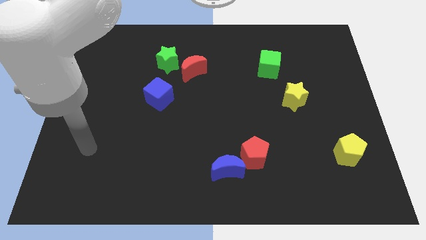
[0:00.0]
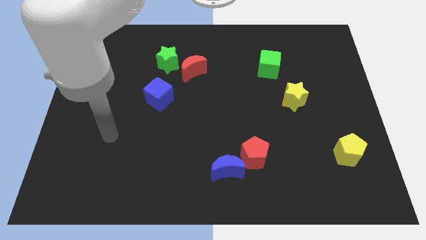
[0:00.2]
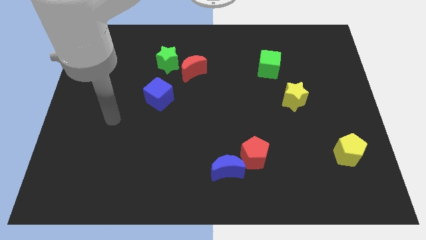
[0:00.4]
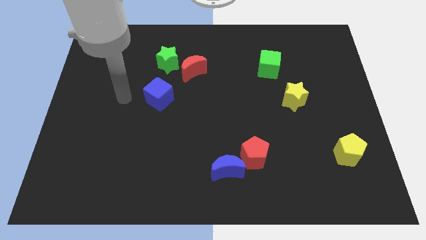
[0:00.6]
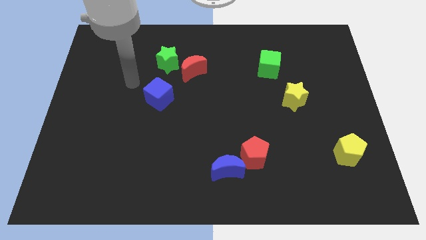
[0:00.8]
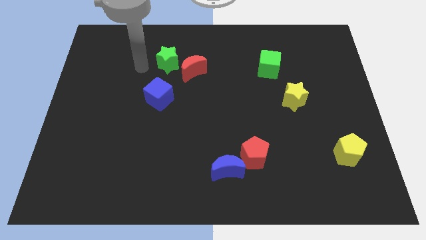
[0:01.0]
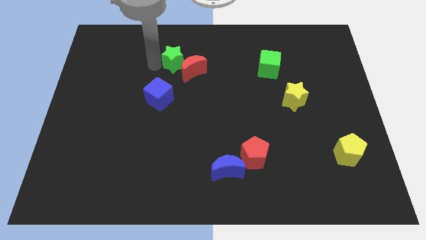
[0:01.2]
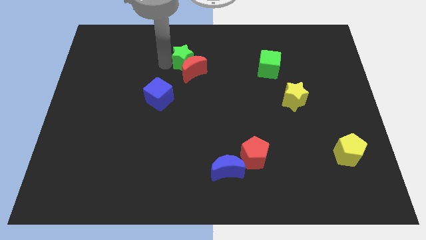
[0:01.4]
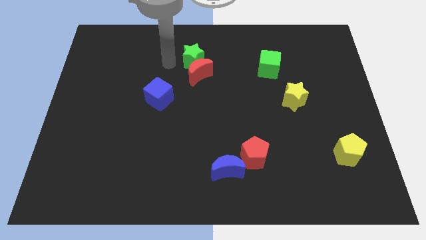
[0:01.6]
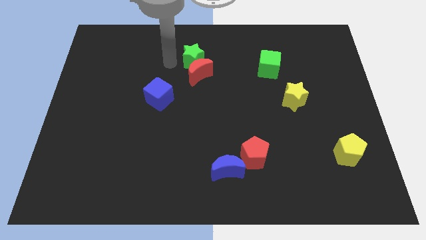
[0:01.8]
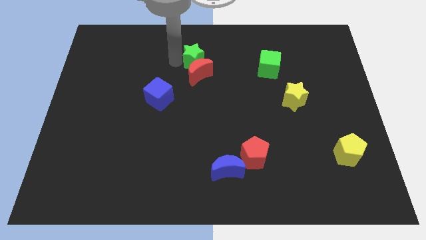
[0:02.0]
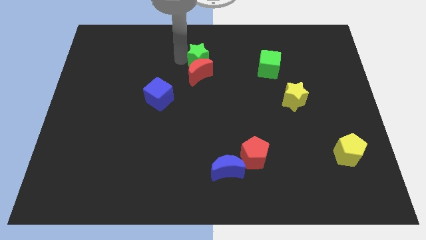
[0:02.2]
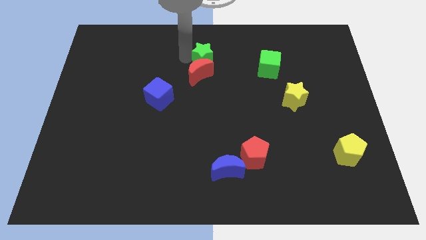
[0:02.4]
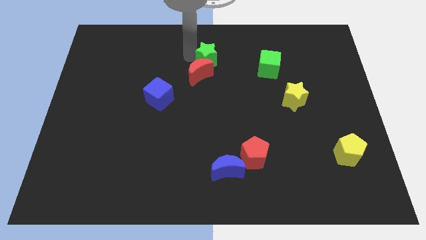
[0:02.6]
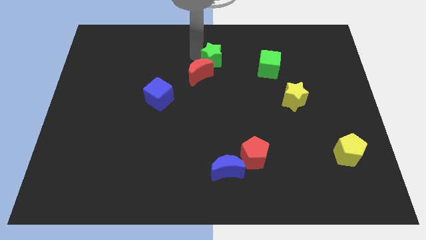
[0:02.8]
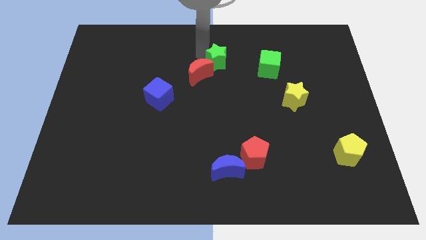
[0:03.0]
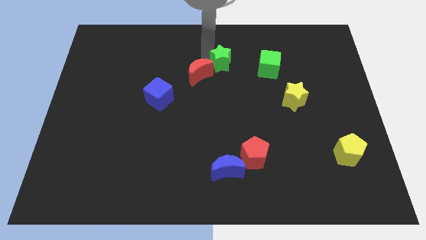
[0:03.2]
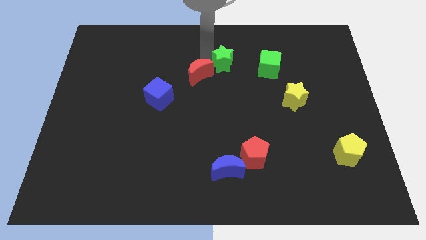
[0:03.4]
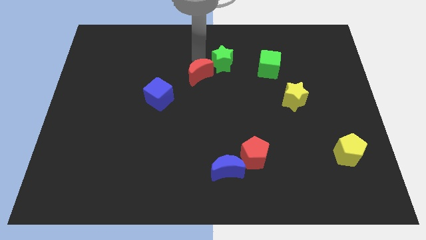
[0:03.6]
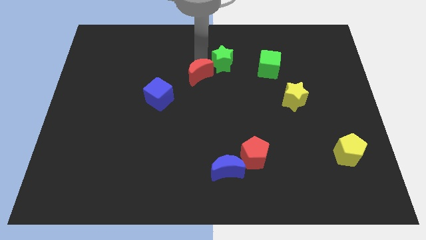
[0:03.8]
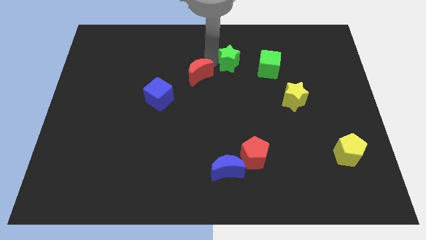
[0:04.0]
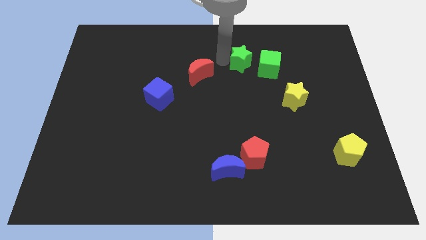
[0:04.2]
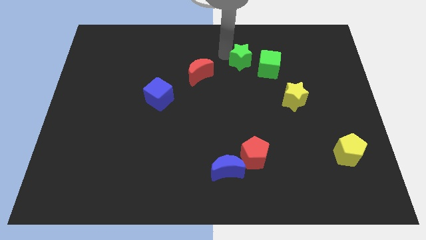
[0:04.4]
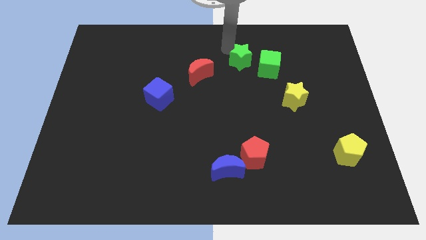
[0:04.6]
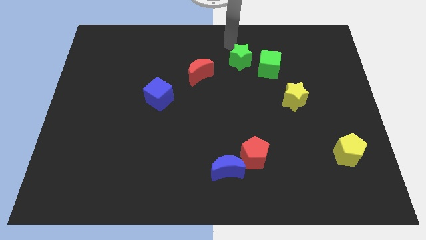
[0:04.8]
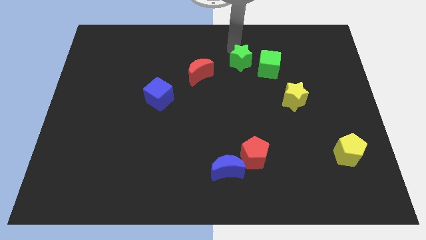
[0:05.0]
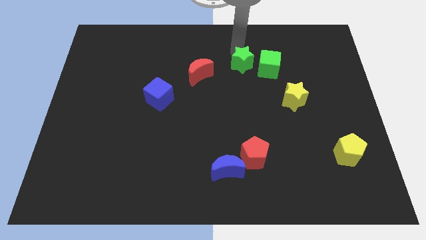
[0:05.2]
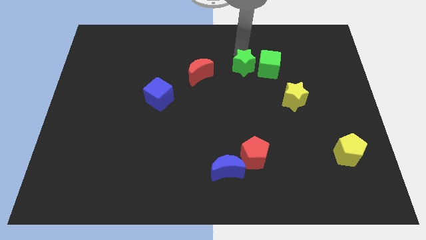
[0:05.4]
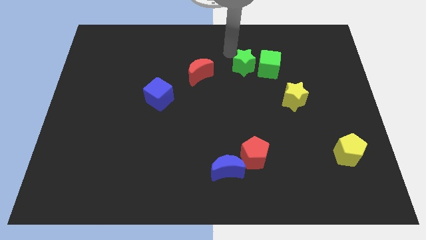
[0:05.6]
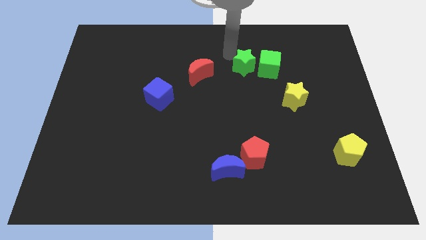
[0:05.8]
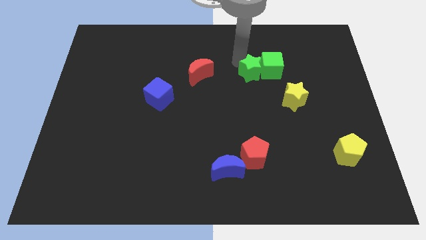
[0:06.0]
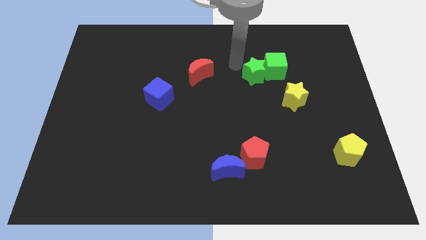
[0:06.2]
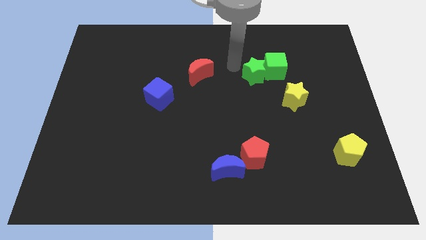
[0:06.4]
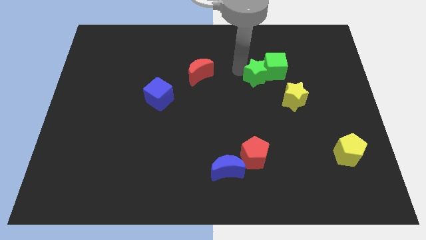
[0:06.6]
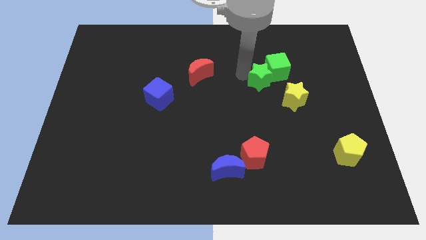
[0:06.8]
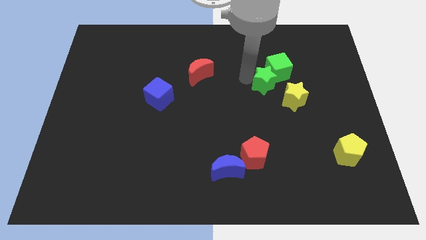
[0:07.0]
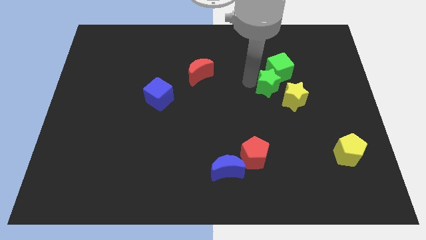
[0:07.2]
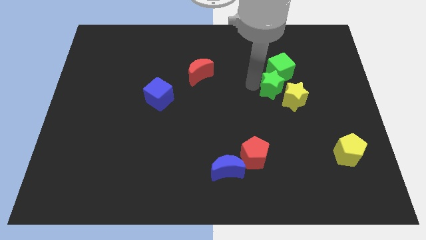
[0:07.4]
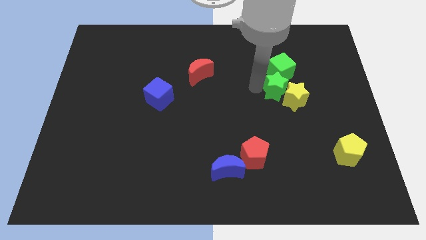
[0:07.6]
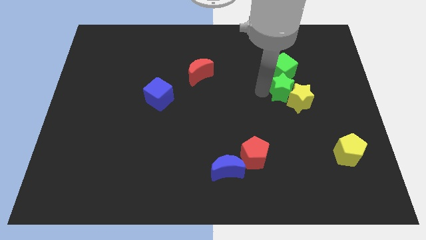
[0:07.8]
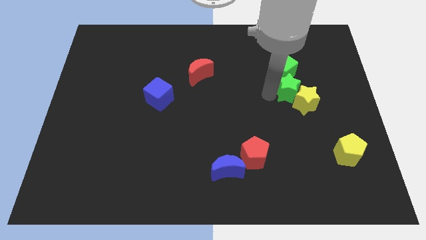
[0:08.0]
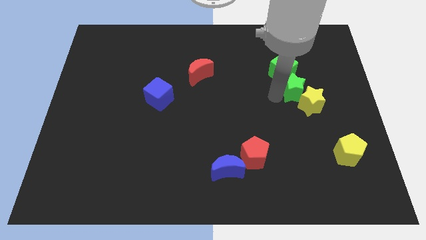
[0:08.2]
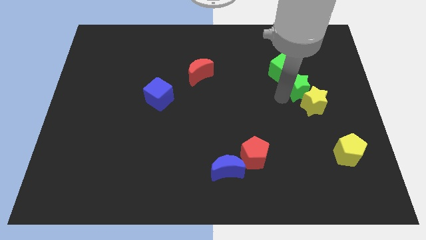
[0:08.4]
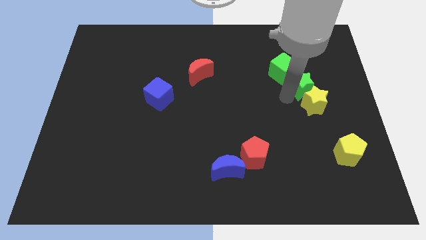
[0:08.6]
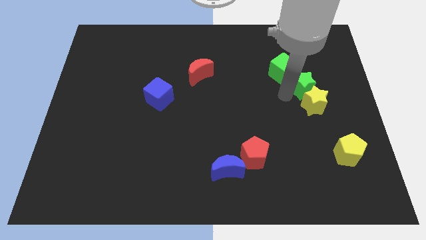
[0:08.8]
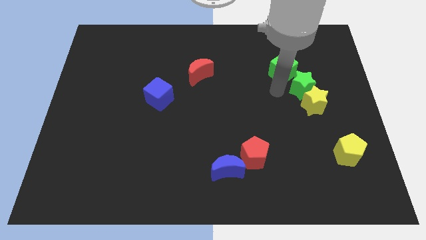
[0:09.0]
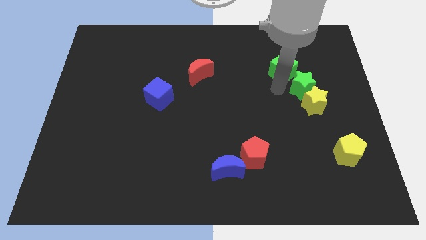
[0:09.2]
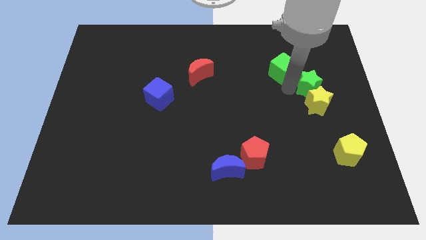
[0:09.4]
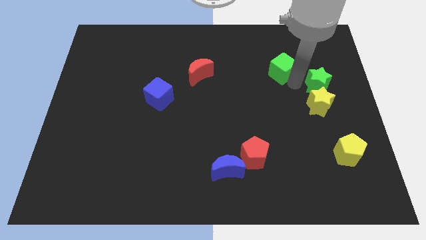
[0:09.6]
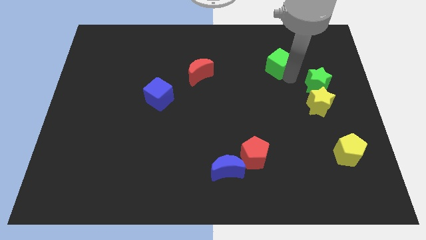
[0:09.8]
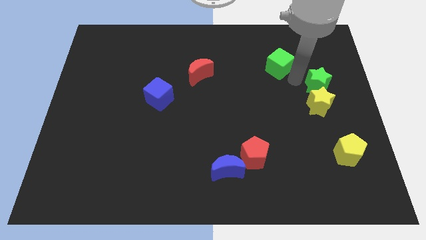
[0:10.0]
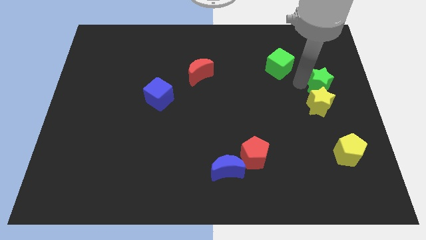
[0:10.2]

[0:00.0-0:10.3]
push the green star to the right side

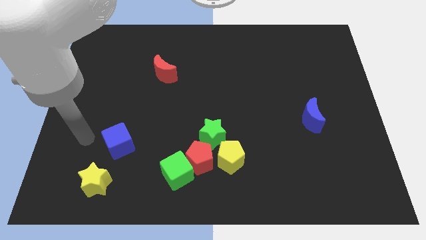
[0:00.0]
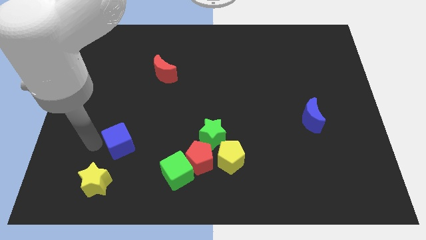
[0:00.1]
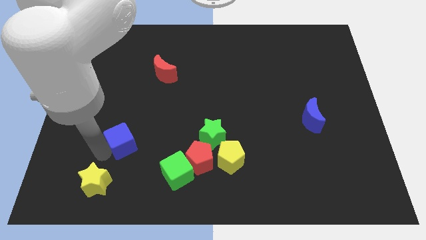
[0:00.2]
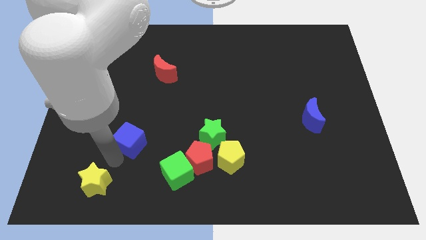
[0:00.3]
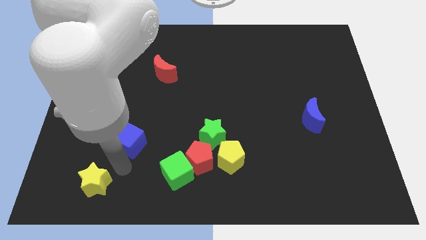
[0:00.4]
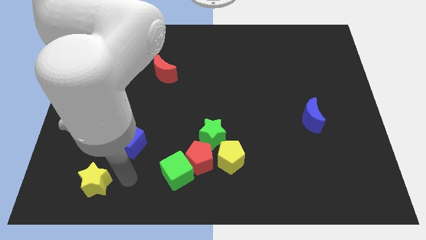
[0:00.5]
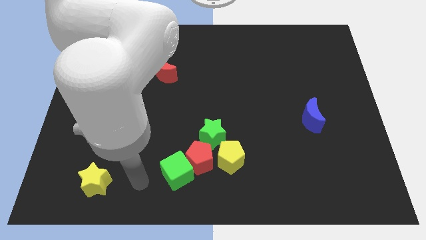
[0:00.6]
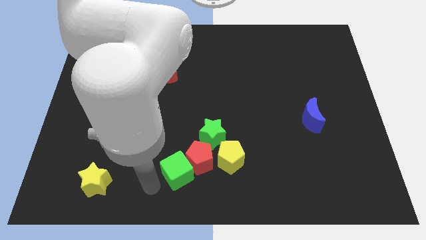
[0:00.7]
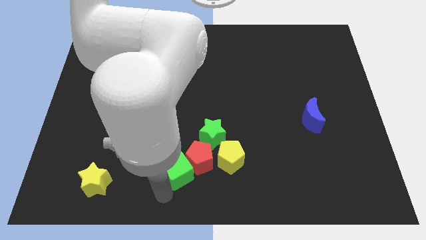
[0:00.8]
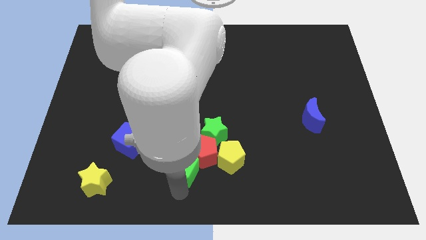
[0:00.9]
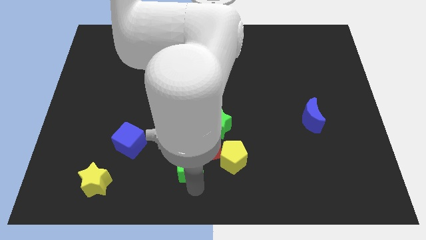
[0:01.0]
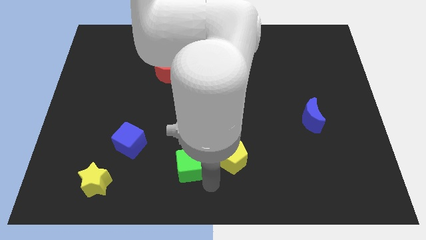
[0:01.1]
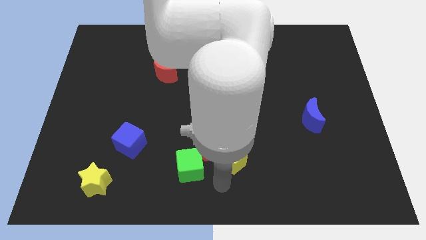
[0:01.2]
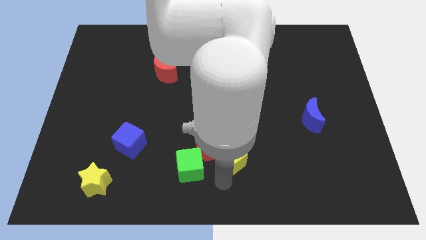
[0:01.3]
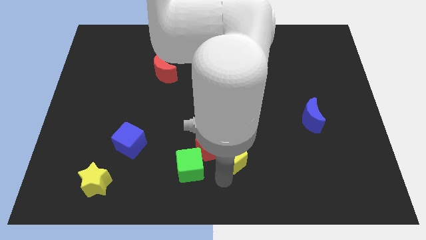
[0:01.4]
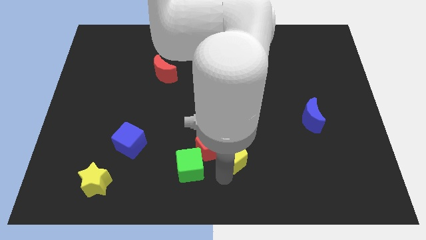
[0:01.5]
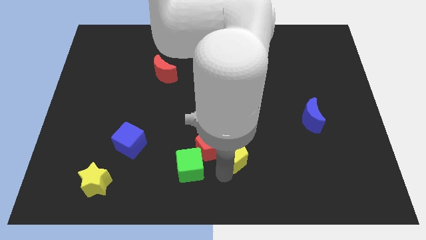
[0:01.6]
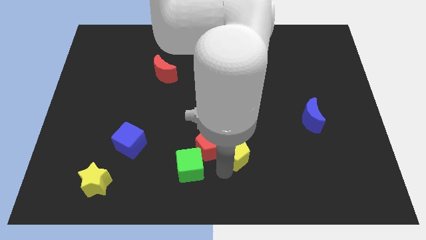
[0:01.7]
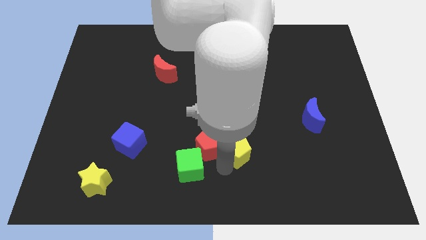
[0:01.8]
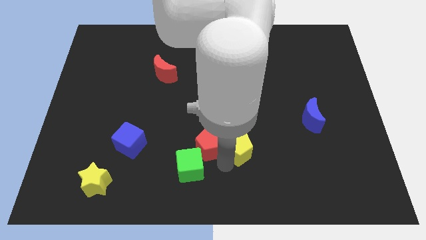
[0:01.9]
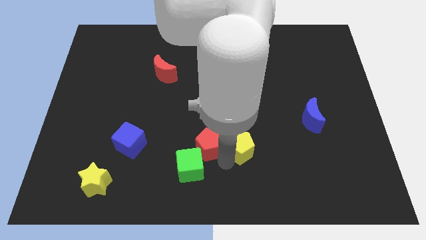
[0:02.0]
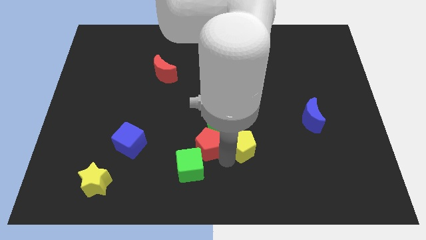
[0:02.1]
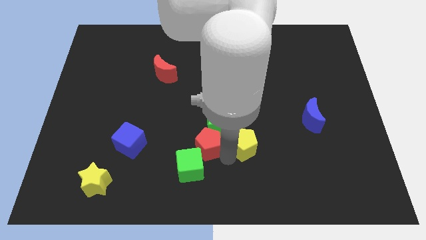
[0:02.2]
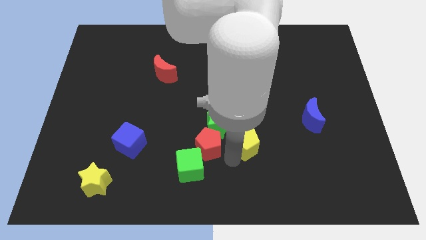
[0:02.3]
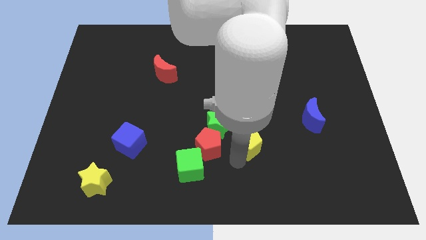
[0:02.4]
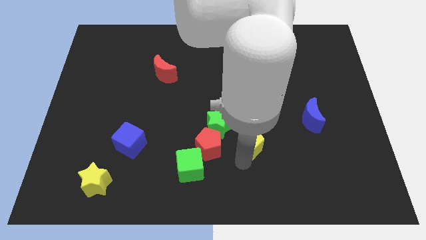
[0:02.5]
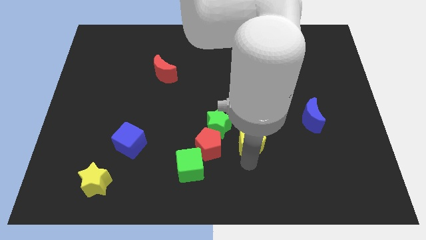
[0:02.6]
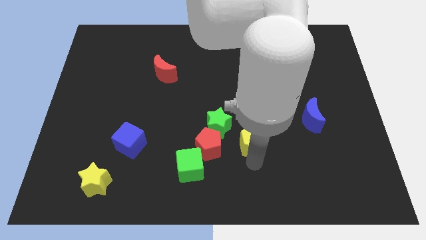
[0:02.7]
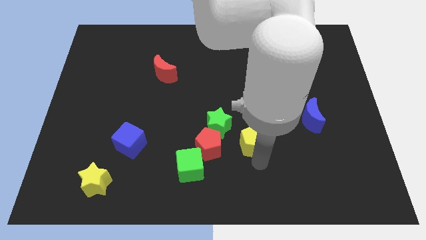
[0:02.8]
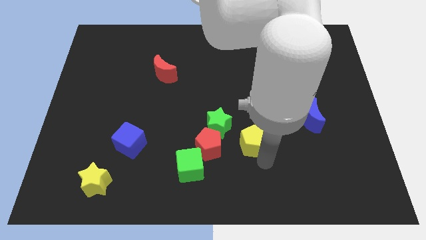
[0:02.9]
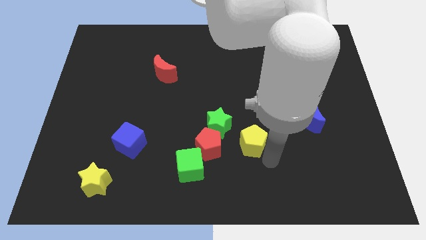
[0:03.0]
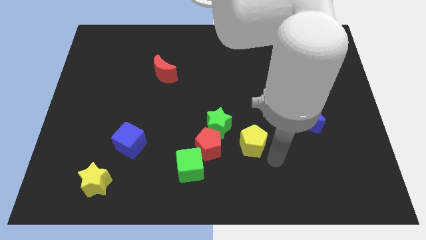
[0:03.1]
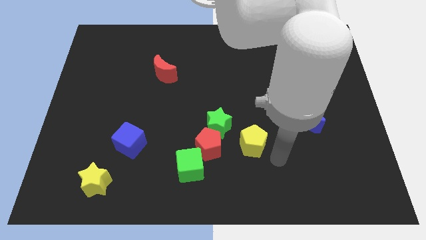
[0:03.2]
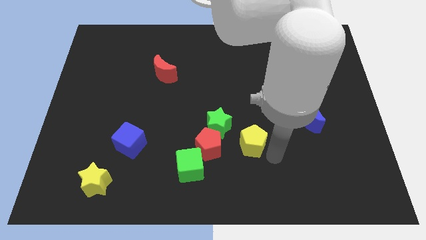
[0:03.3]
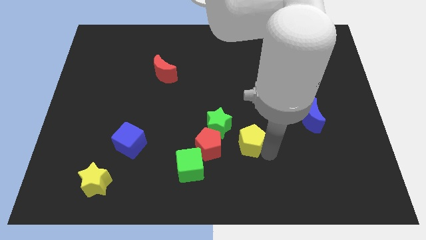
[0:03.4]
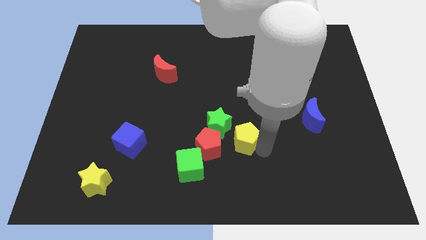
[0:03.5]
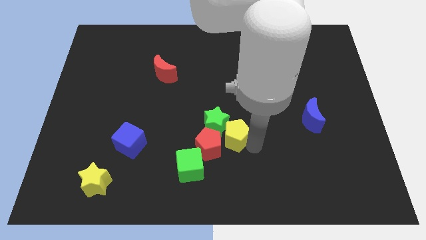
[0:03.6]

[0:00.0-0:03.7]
put the yellow pentagon to the center of the board
